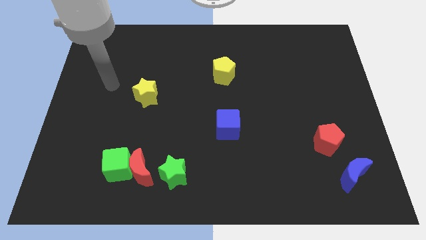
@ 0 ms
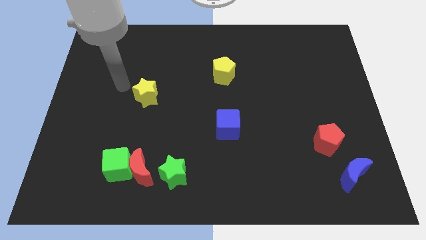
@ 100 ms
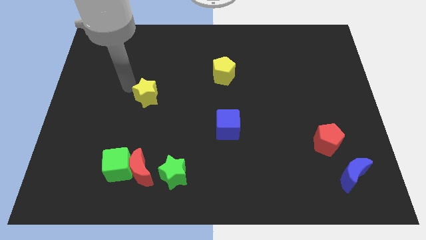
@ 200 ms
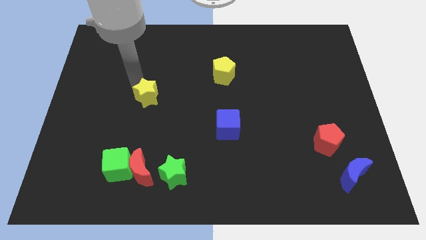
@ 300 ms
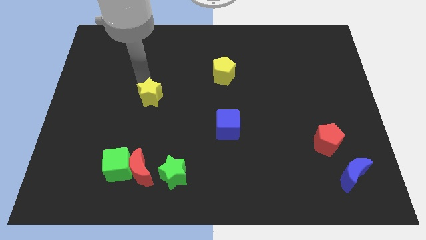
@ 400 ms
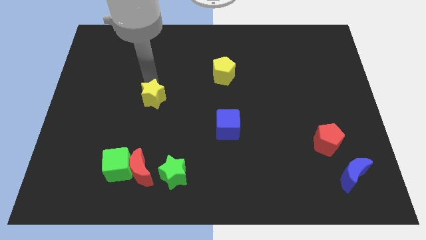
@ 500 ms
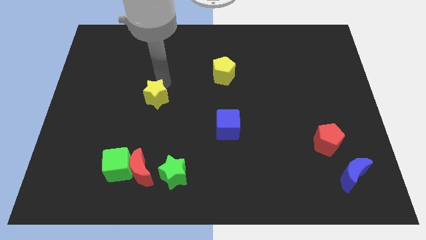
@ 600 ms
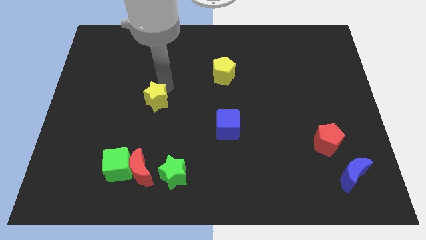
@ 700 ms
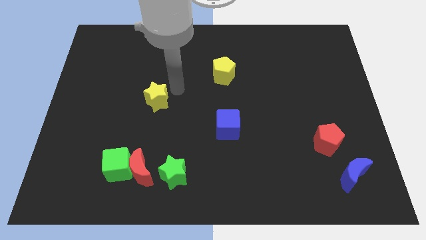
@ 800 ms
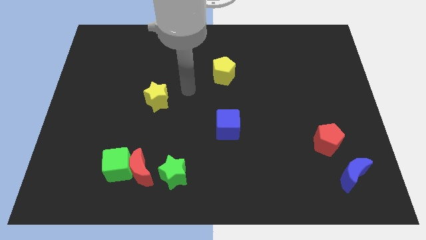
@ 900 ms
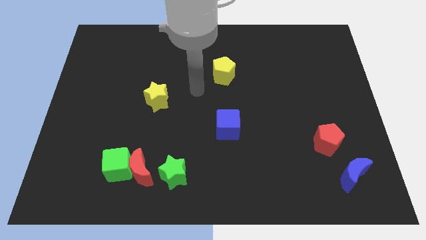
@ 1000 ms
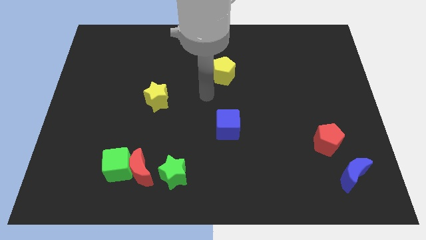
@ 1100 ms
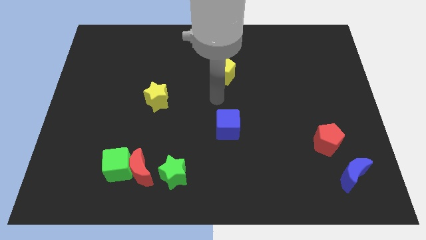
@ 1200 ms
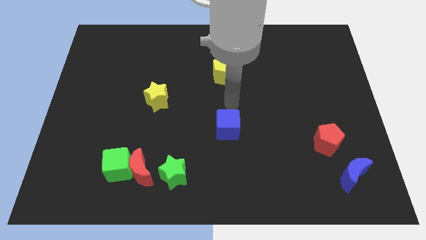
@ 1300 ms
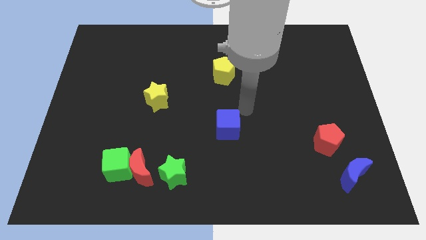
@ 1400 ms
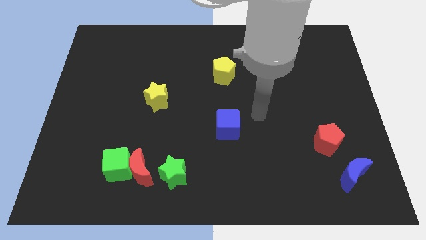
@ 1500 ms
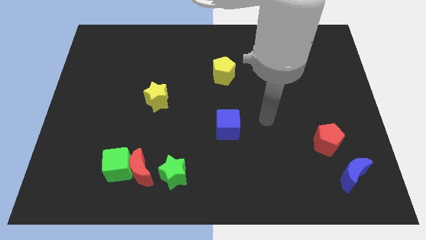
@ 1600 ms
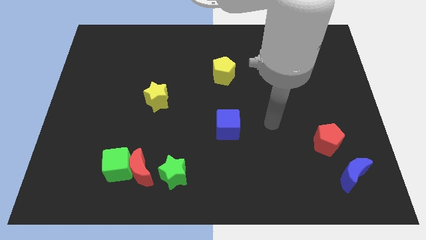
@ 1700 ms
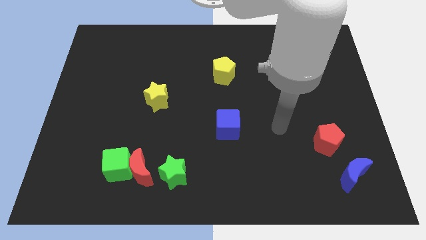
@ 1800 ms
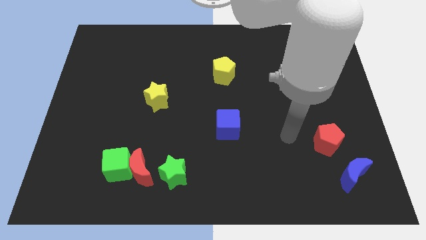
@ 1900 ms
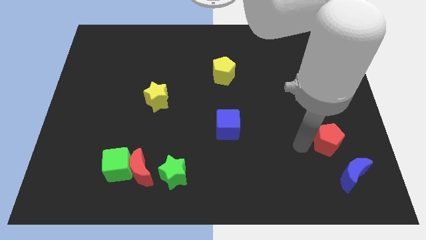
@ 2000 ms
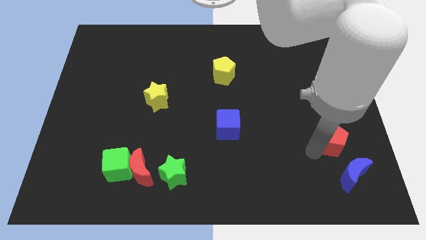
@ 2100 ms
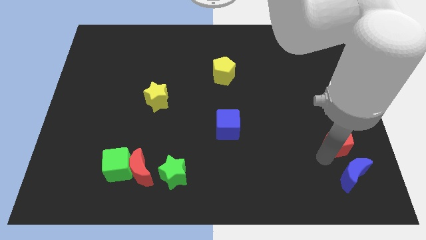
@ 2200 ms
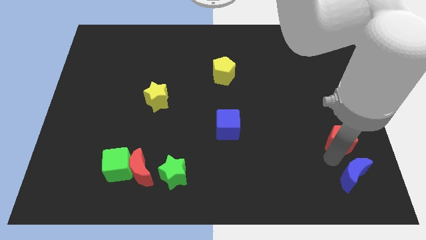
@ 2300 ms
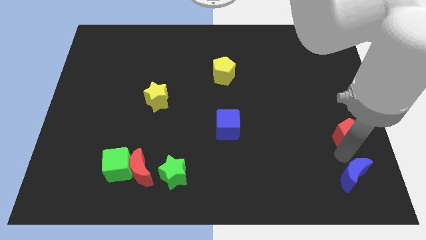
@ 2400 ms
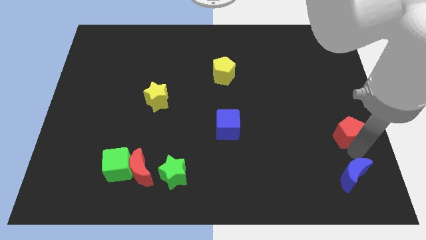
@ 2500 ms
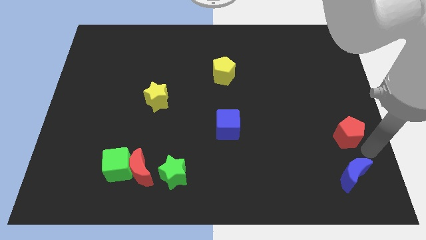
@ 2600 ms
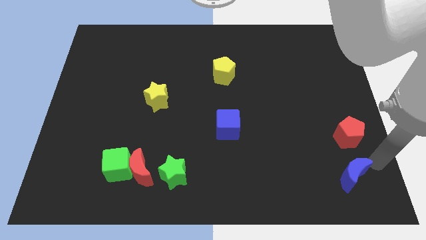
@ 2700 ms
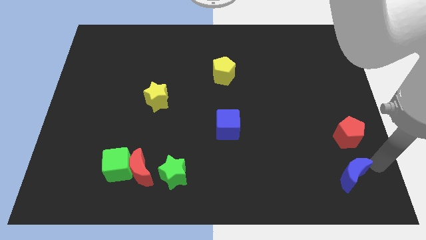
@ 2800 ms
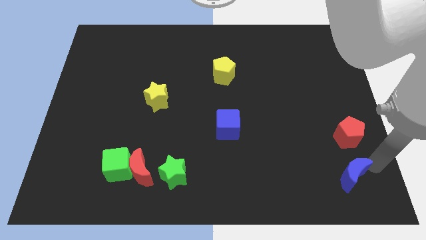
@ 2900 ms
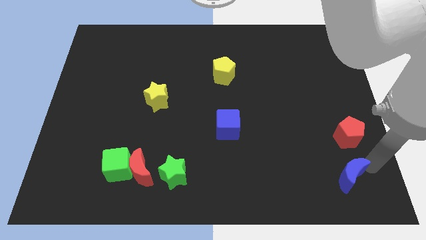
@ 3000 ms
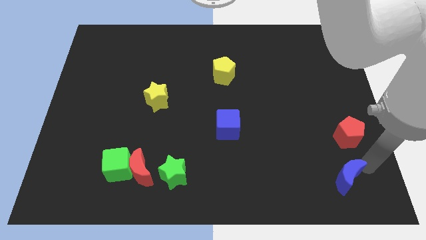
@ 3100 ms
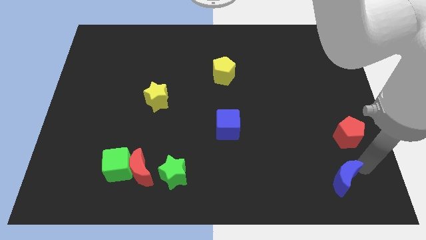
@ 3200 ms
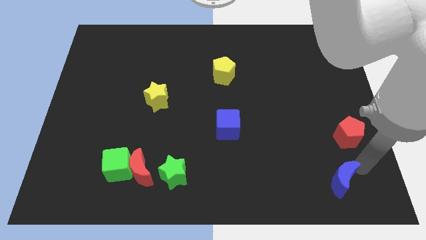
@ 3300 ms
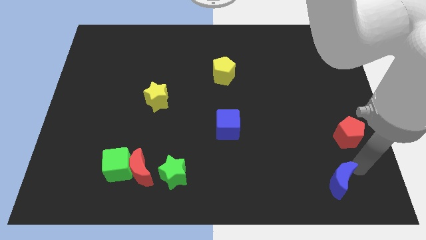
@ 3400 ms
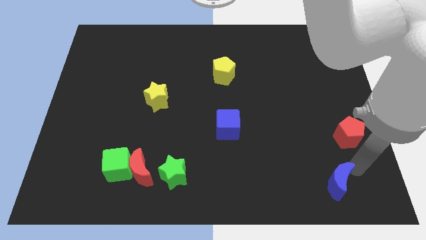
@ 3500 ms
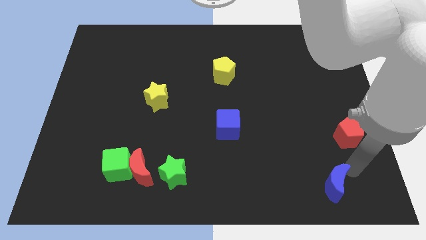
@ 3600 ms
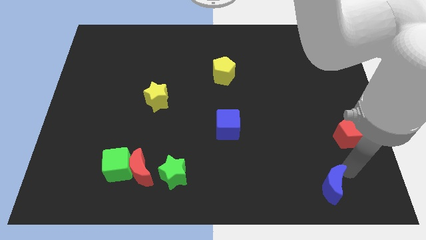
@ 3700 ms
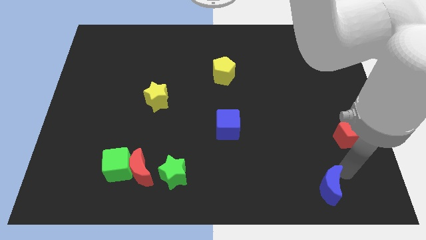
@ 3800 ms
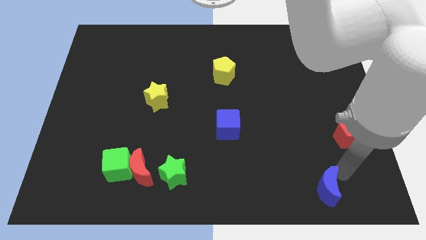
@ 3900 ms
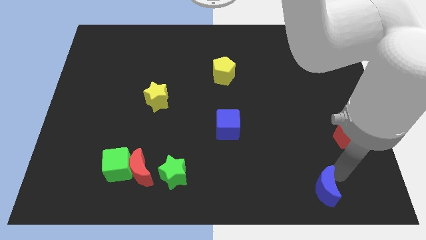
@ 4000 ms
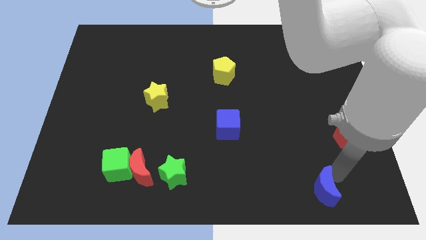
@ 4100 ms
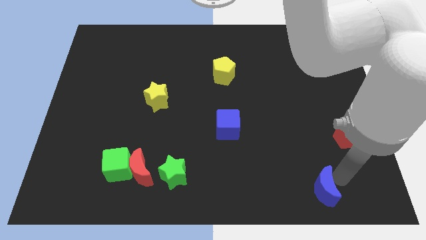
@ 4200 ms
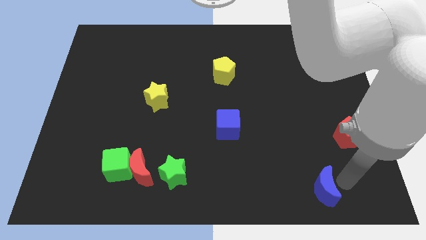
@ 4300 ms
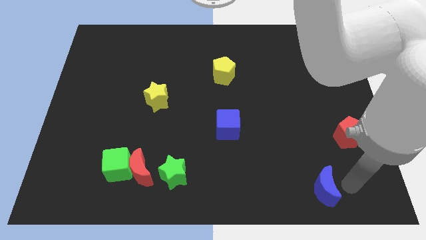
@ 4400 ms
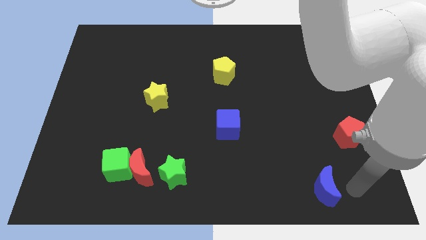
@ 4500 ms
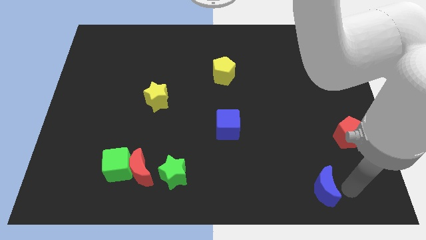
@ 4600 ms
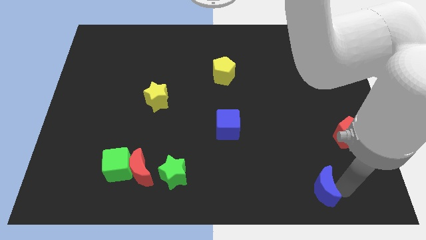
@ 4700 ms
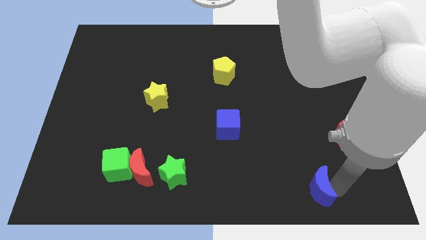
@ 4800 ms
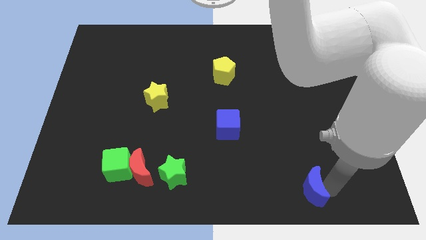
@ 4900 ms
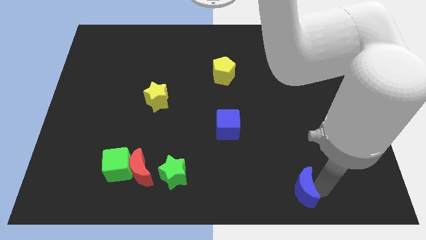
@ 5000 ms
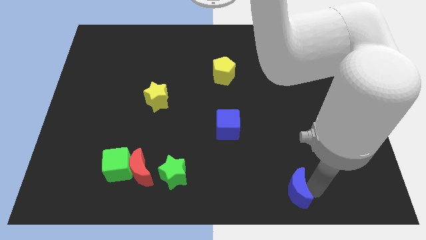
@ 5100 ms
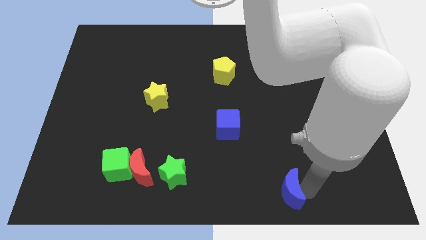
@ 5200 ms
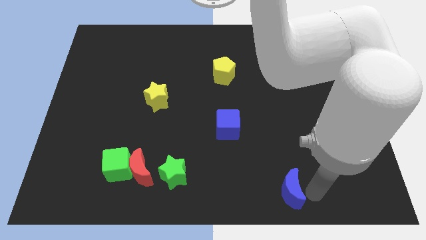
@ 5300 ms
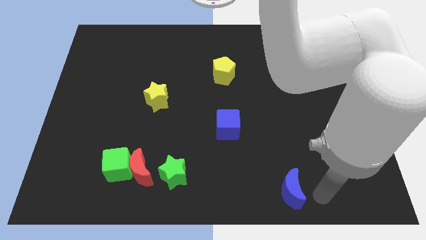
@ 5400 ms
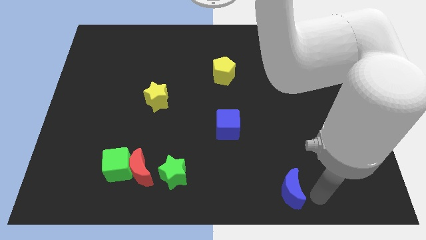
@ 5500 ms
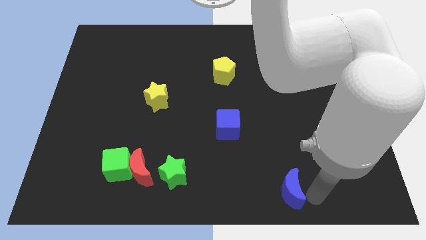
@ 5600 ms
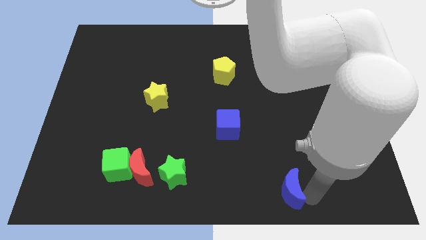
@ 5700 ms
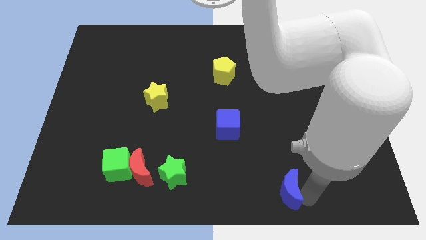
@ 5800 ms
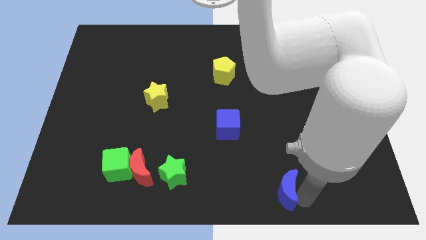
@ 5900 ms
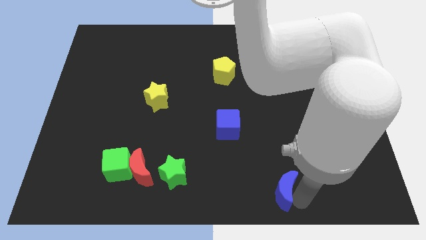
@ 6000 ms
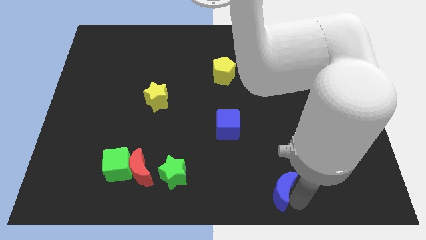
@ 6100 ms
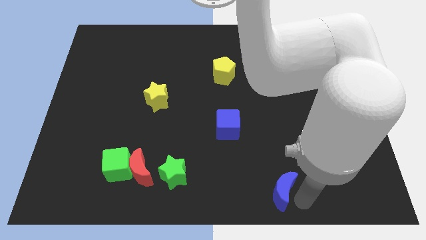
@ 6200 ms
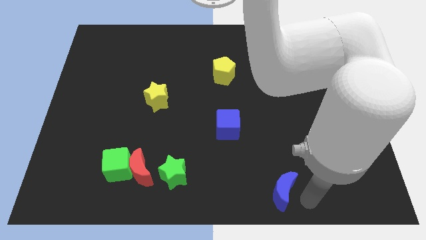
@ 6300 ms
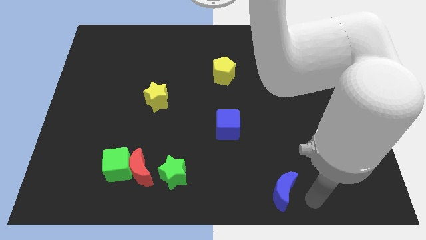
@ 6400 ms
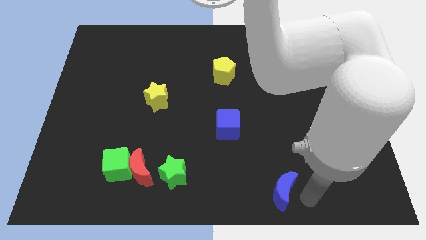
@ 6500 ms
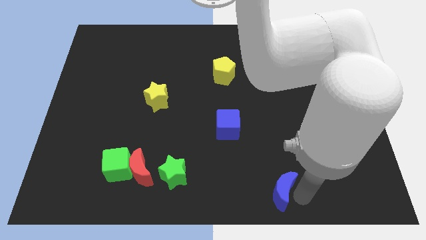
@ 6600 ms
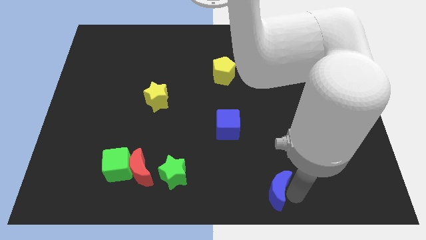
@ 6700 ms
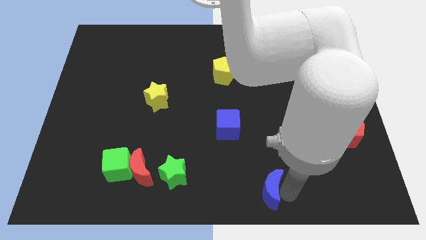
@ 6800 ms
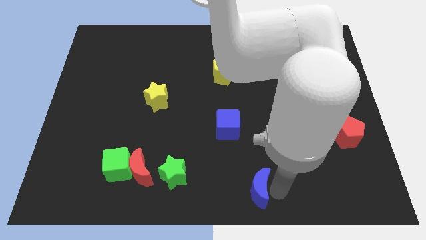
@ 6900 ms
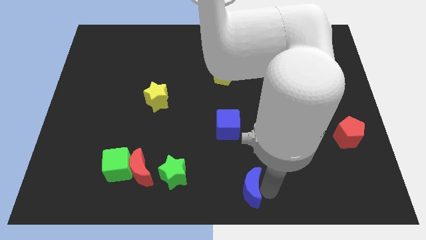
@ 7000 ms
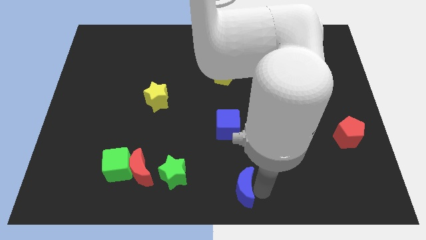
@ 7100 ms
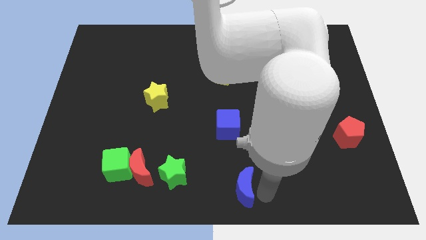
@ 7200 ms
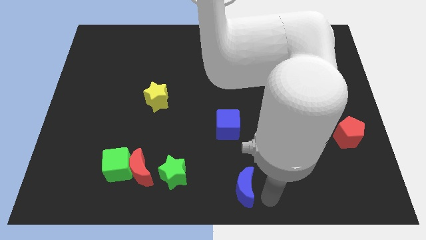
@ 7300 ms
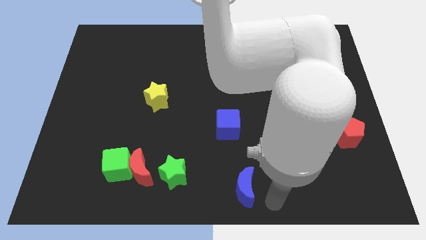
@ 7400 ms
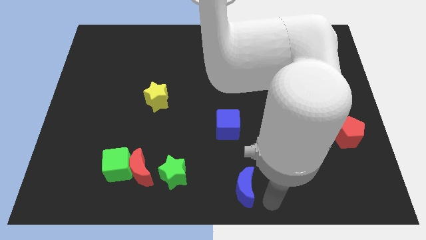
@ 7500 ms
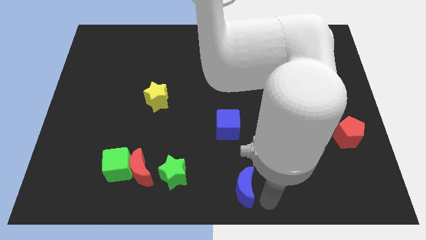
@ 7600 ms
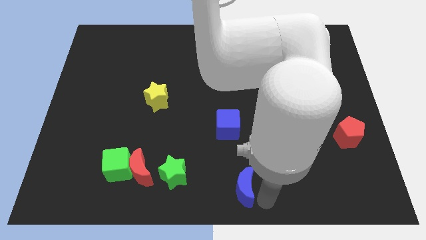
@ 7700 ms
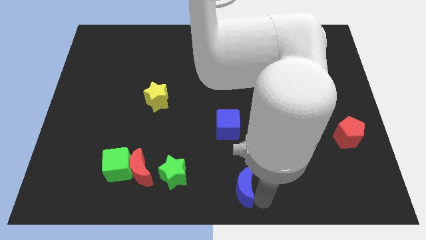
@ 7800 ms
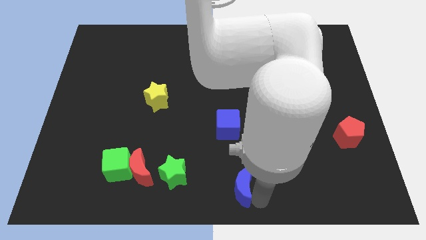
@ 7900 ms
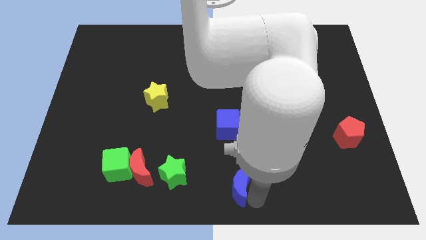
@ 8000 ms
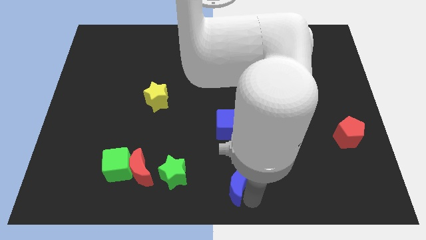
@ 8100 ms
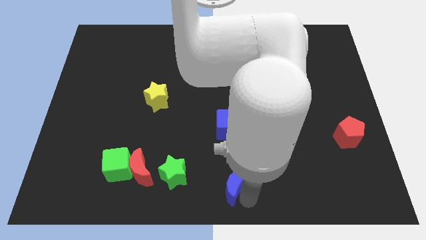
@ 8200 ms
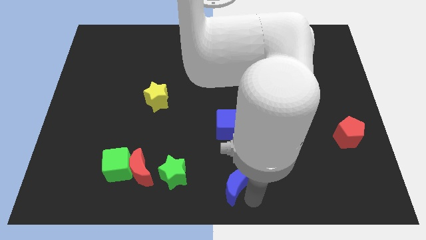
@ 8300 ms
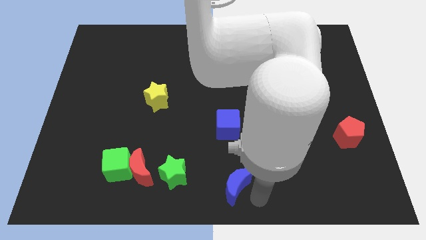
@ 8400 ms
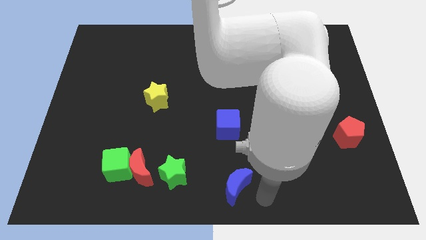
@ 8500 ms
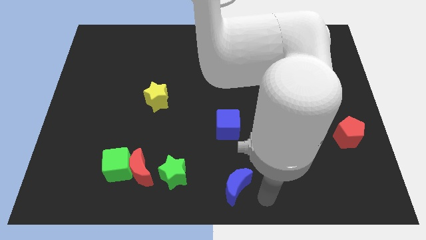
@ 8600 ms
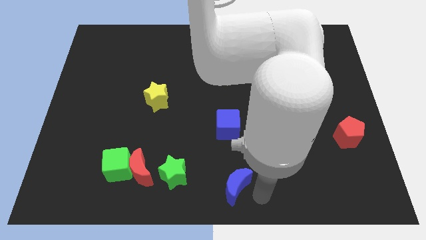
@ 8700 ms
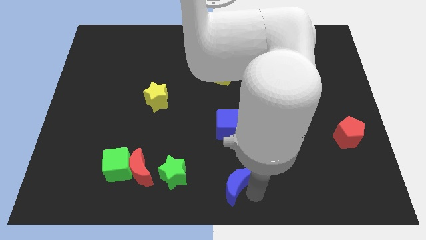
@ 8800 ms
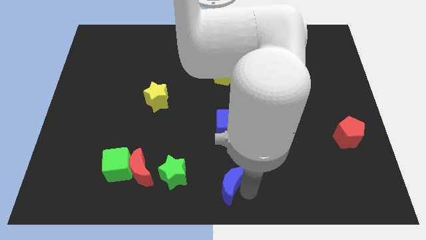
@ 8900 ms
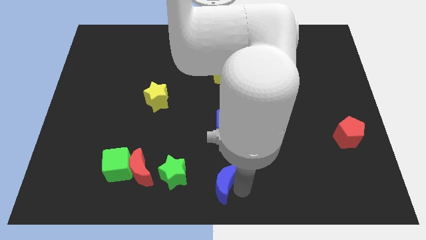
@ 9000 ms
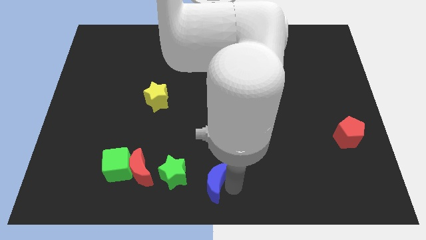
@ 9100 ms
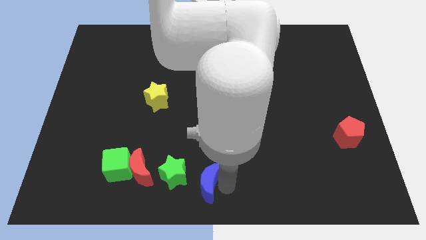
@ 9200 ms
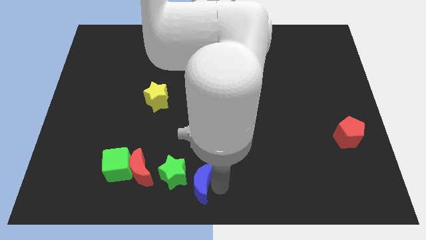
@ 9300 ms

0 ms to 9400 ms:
push the blue moon to the green star
